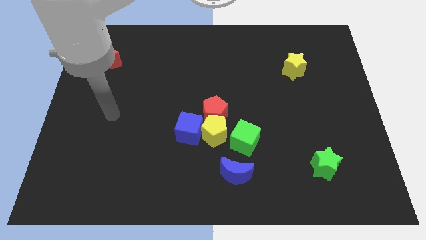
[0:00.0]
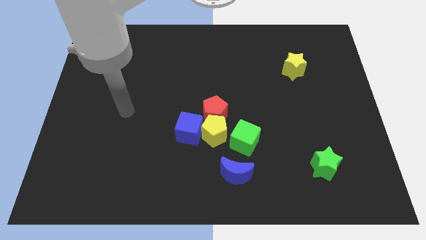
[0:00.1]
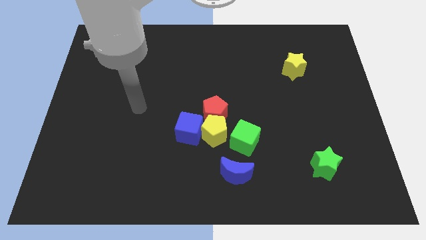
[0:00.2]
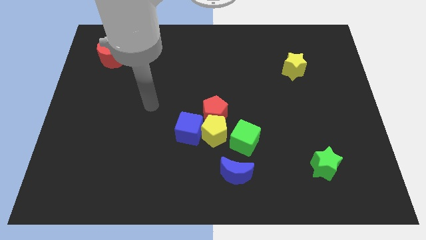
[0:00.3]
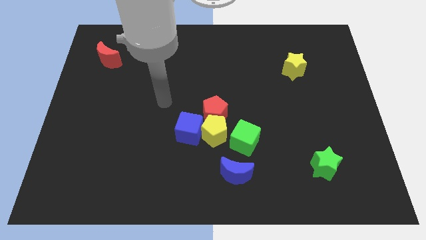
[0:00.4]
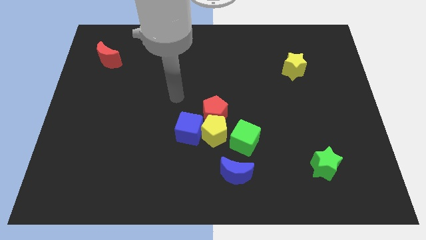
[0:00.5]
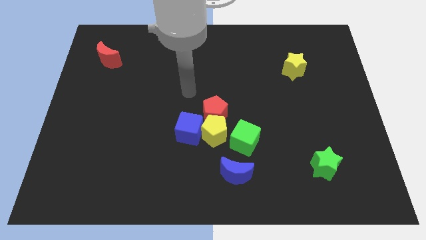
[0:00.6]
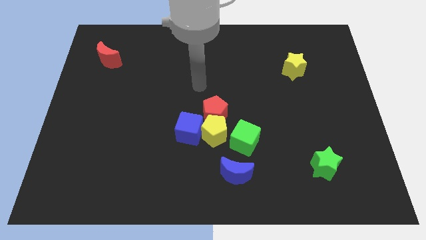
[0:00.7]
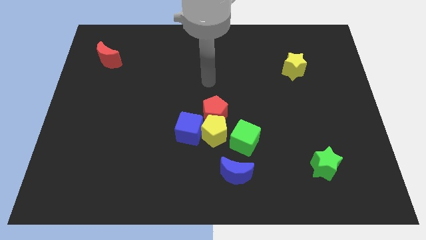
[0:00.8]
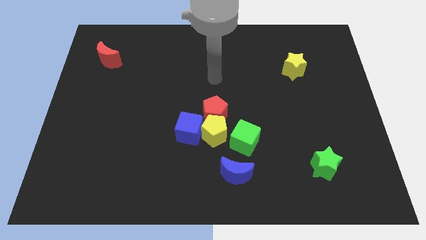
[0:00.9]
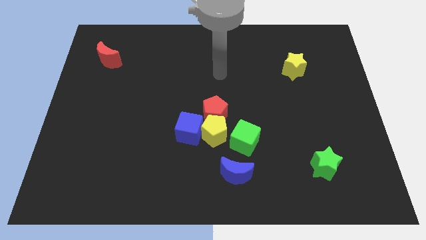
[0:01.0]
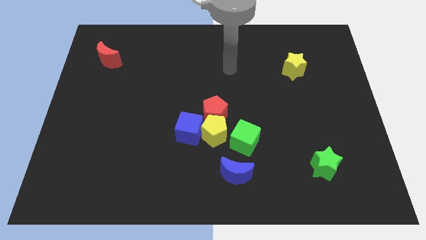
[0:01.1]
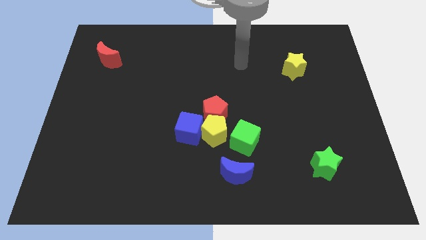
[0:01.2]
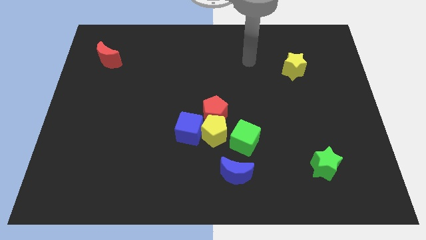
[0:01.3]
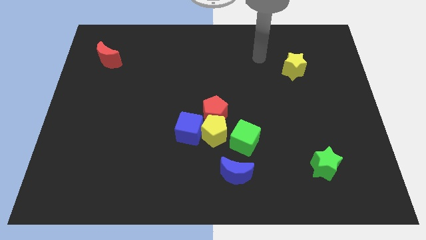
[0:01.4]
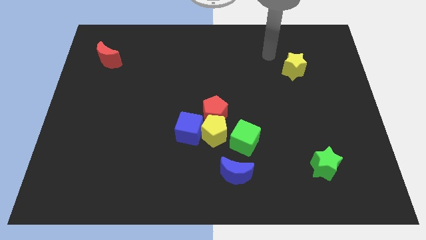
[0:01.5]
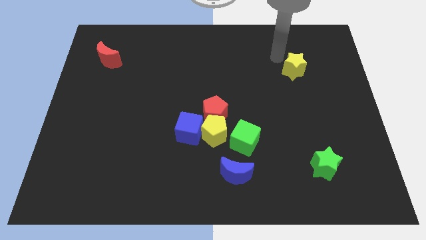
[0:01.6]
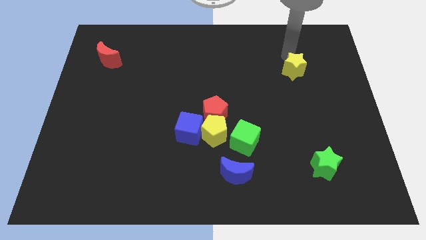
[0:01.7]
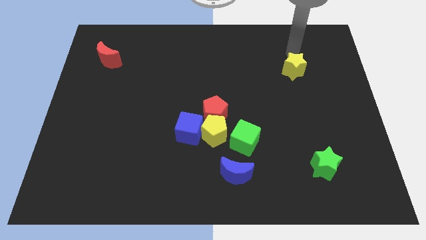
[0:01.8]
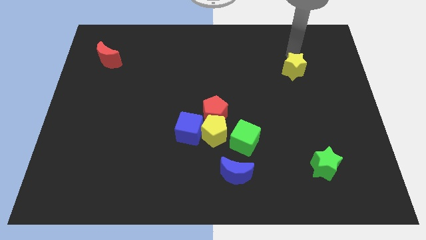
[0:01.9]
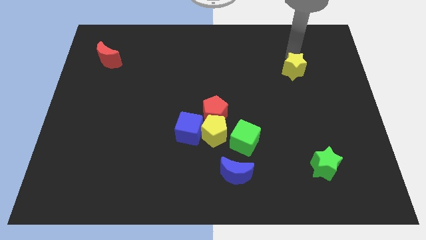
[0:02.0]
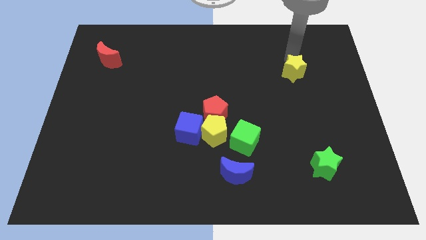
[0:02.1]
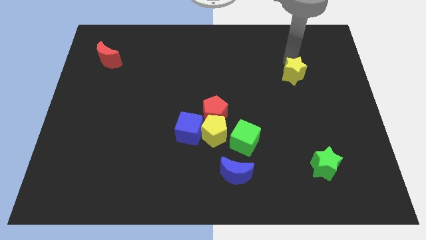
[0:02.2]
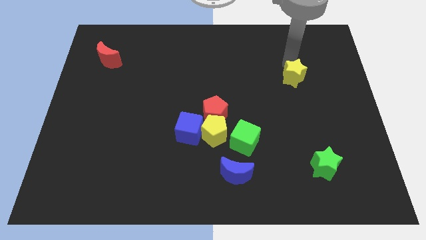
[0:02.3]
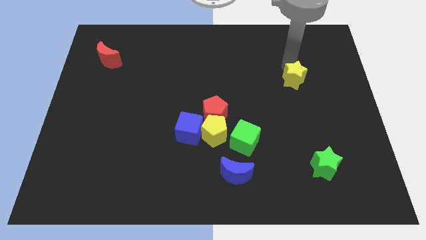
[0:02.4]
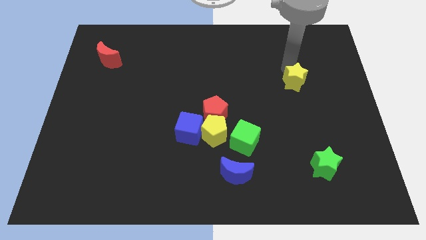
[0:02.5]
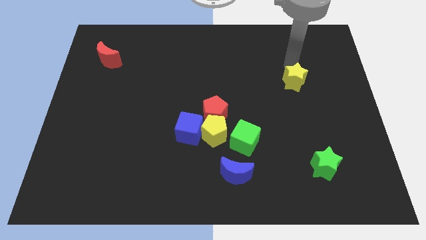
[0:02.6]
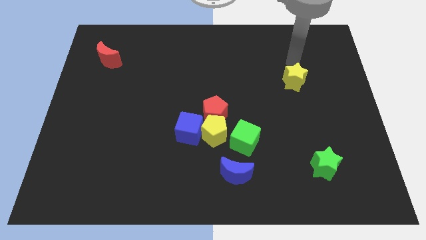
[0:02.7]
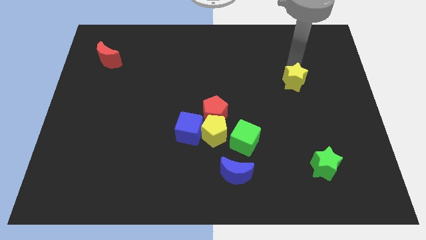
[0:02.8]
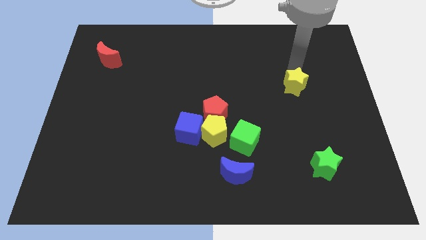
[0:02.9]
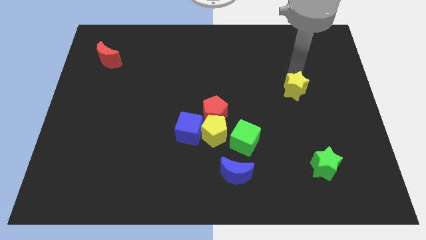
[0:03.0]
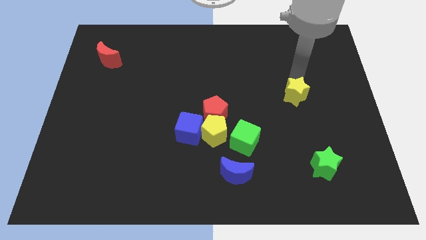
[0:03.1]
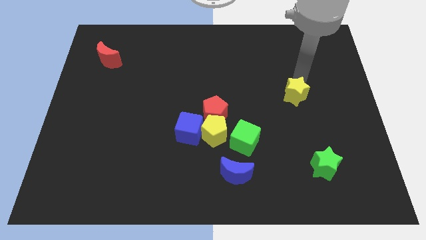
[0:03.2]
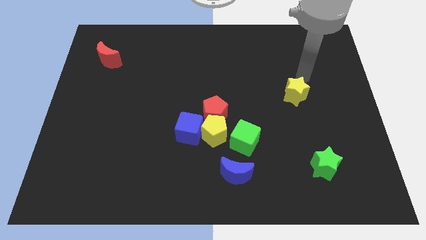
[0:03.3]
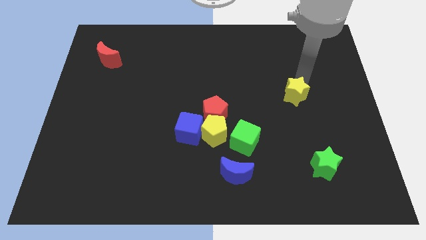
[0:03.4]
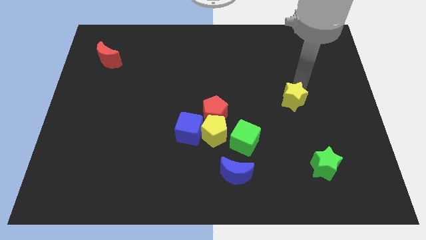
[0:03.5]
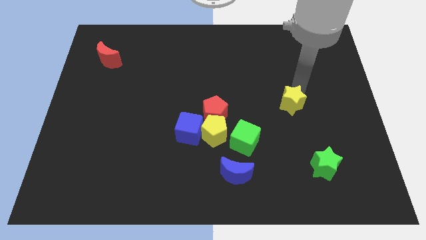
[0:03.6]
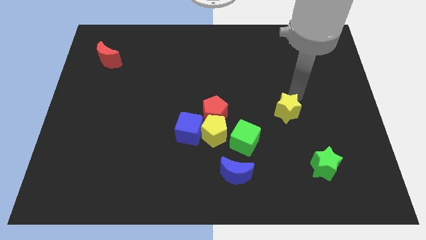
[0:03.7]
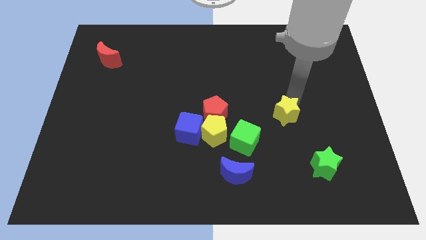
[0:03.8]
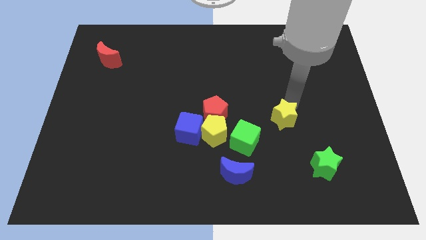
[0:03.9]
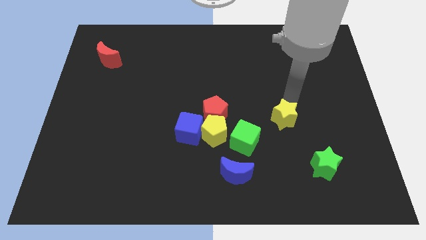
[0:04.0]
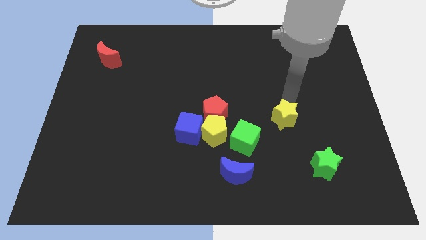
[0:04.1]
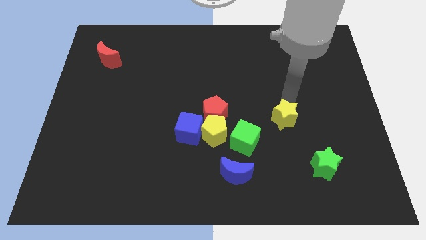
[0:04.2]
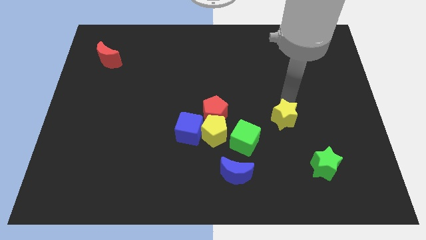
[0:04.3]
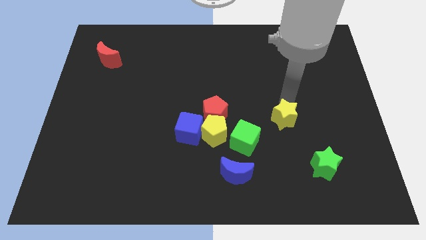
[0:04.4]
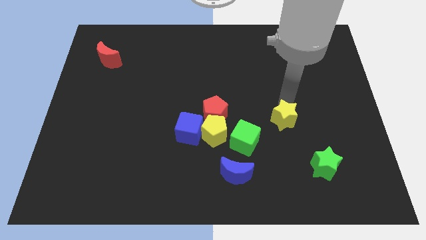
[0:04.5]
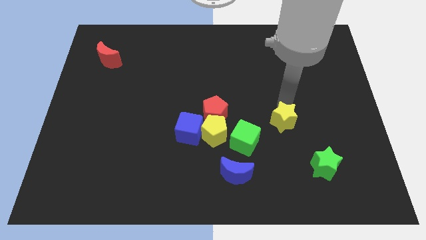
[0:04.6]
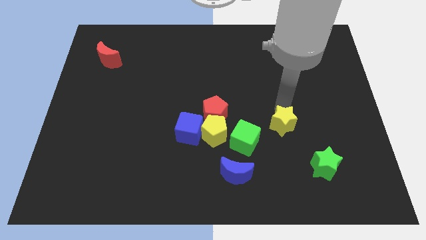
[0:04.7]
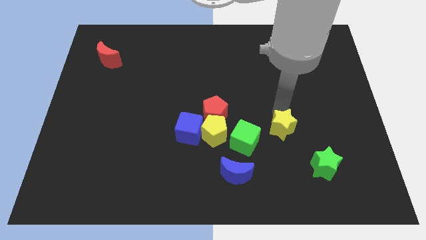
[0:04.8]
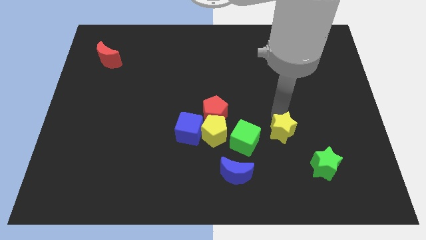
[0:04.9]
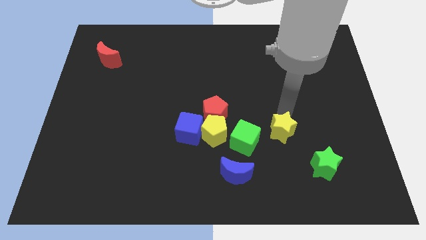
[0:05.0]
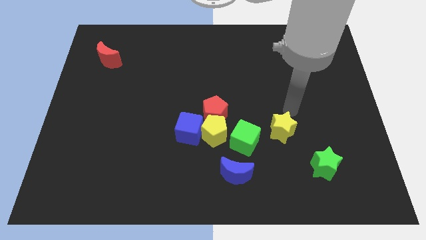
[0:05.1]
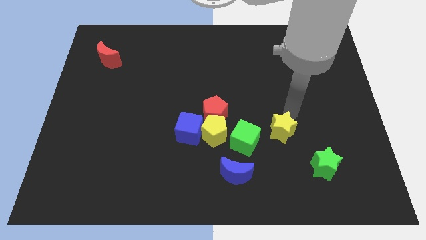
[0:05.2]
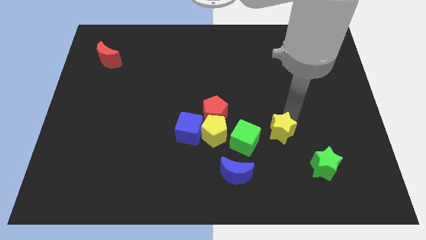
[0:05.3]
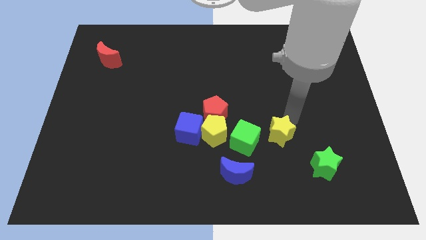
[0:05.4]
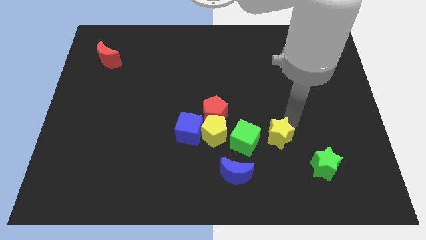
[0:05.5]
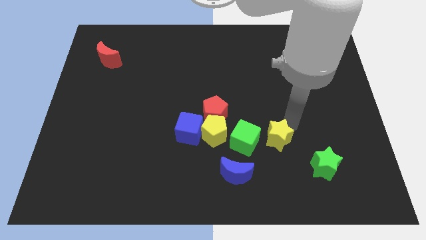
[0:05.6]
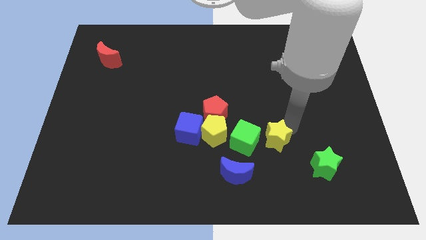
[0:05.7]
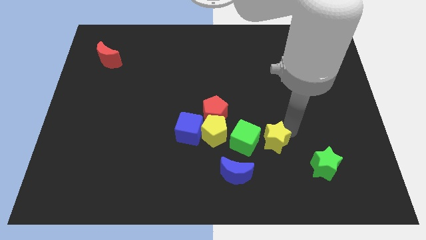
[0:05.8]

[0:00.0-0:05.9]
push the yellow star to the bottom right side of the green cube

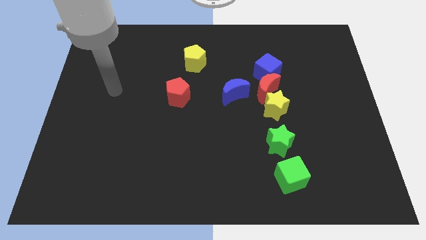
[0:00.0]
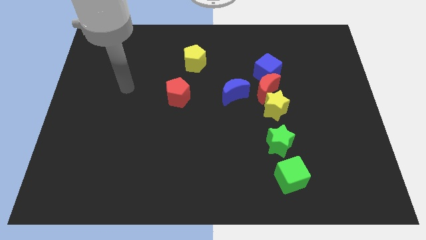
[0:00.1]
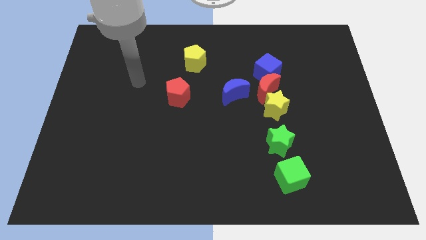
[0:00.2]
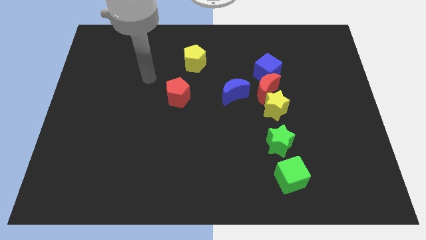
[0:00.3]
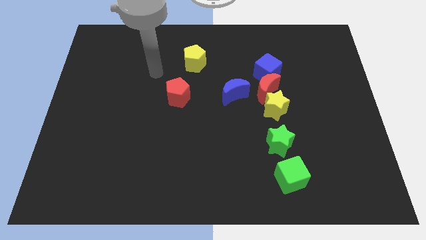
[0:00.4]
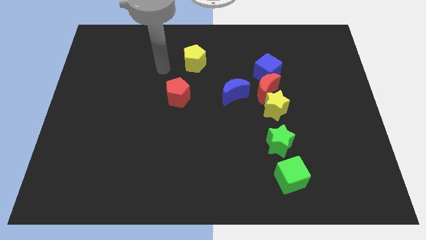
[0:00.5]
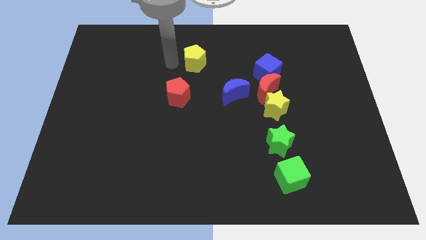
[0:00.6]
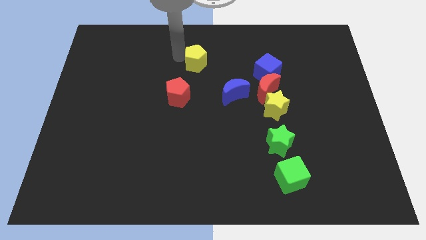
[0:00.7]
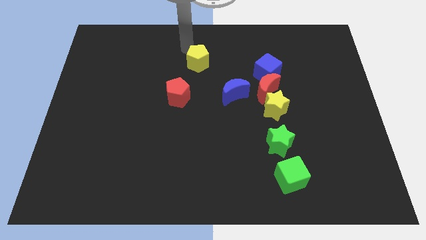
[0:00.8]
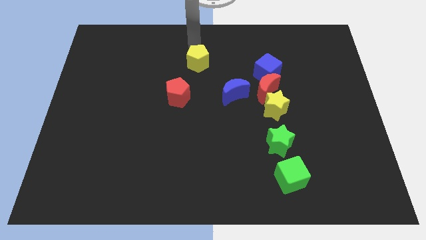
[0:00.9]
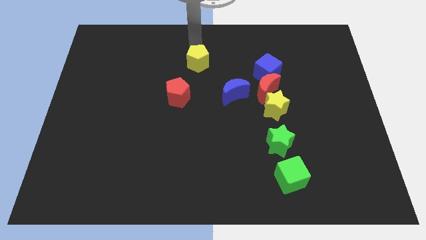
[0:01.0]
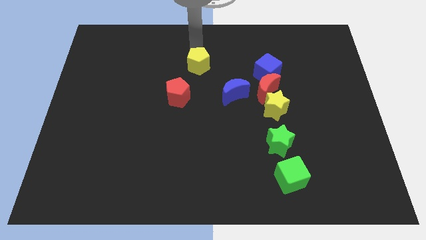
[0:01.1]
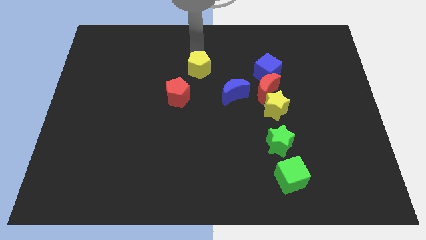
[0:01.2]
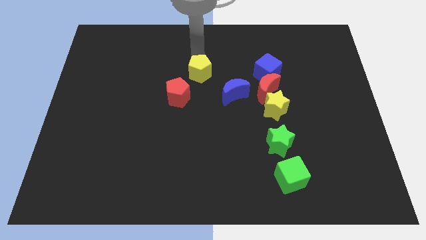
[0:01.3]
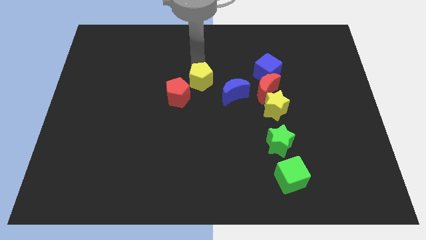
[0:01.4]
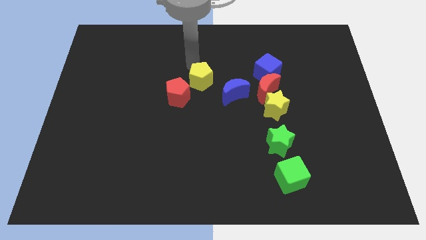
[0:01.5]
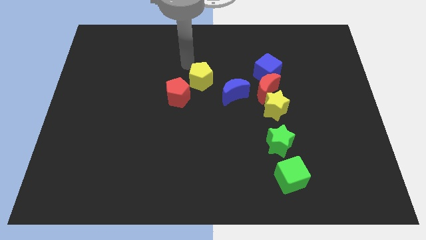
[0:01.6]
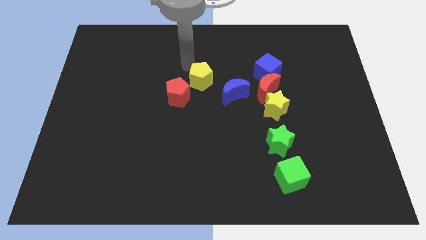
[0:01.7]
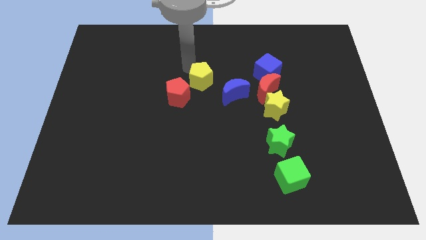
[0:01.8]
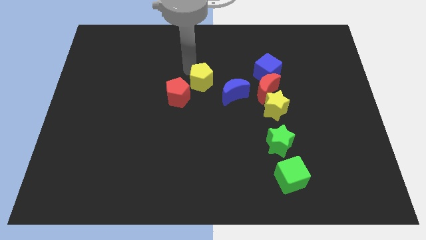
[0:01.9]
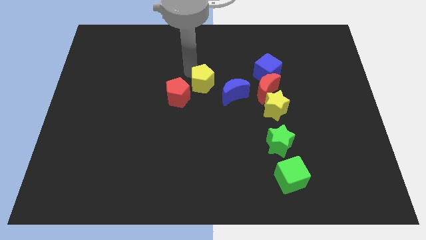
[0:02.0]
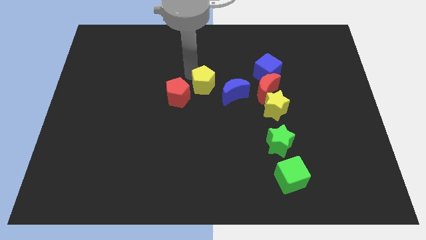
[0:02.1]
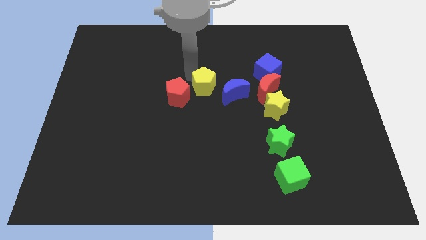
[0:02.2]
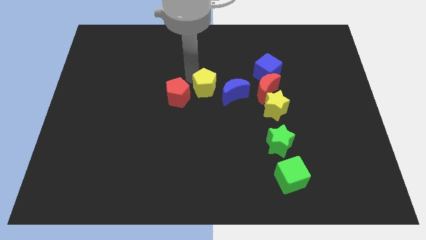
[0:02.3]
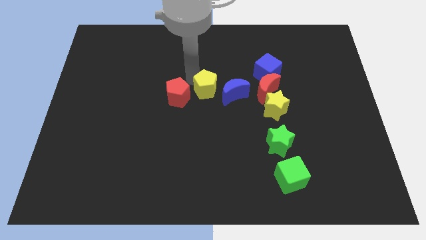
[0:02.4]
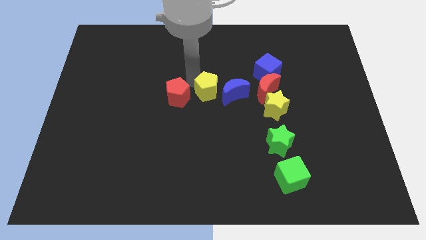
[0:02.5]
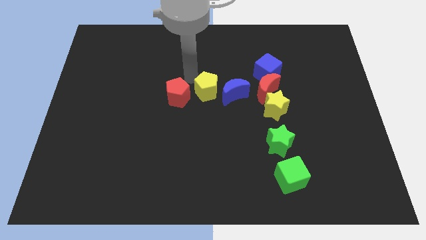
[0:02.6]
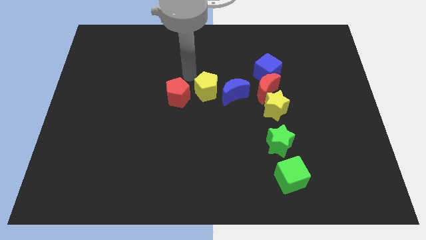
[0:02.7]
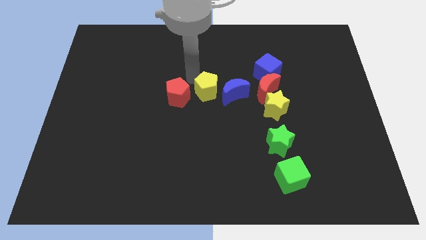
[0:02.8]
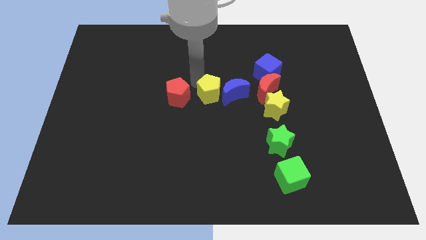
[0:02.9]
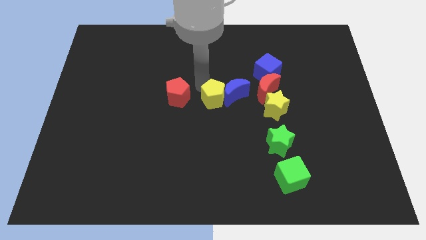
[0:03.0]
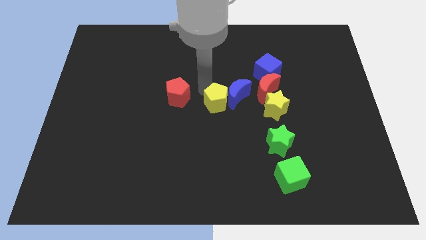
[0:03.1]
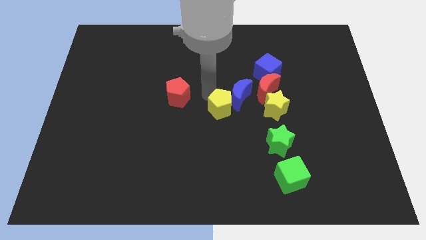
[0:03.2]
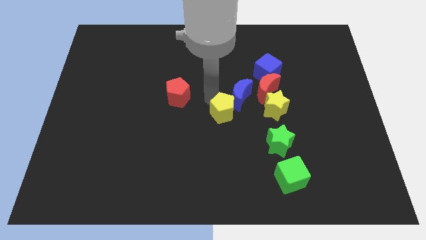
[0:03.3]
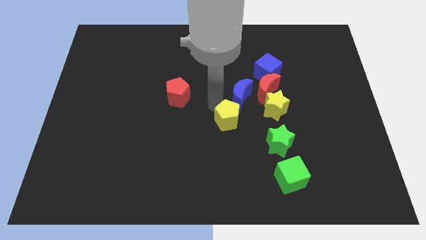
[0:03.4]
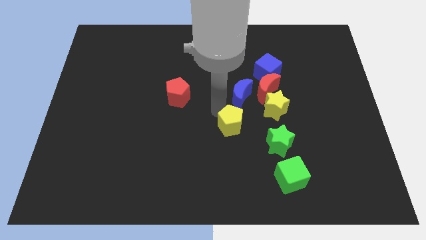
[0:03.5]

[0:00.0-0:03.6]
move the yellow pentagon diagonally up and to the left of the green star
